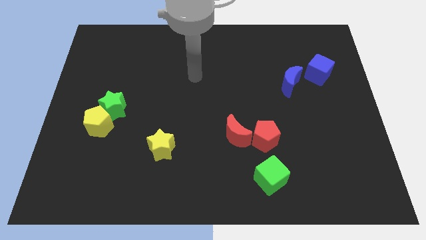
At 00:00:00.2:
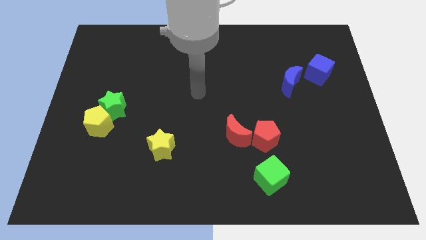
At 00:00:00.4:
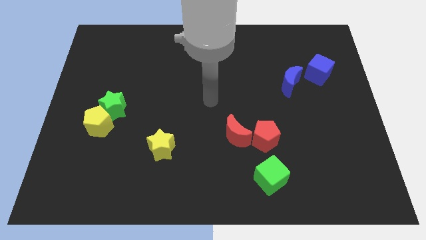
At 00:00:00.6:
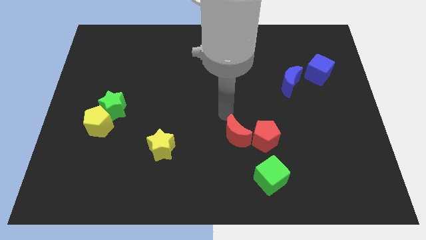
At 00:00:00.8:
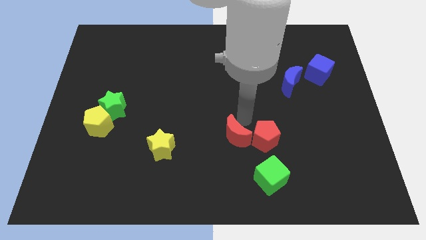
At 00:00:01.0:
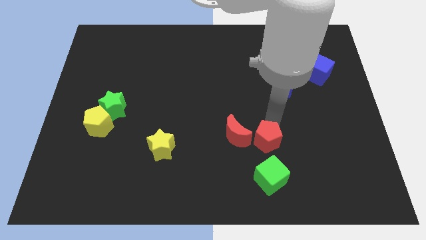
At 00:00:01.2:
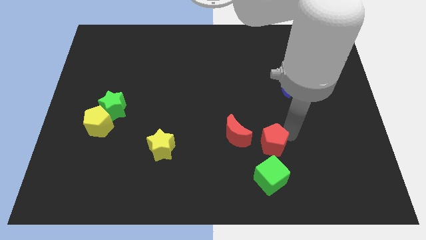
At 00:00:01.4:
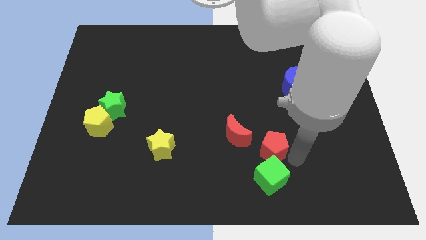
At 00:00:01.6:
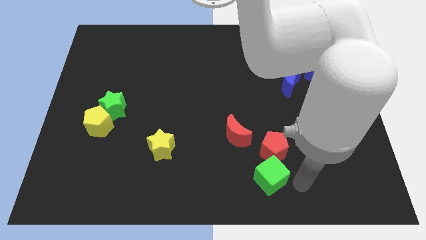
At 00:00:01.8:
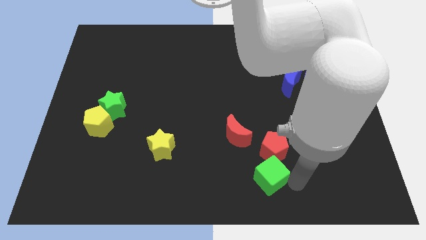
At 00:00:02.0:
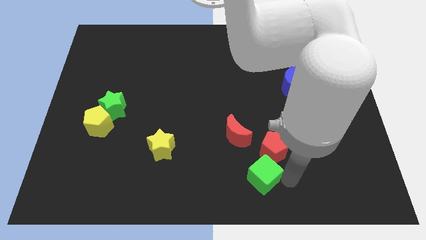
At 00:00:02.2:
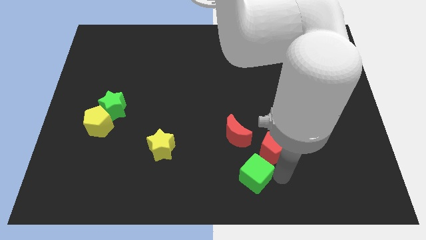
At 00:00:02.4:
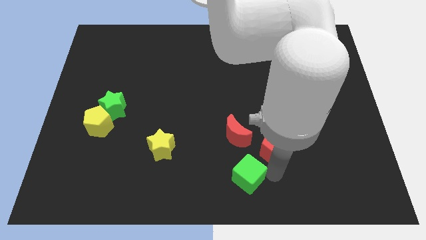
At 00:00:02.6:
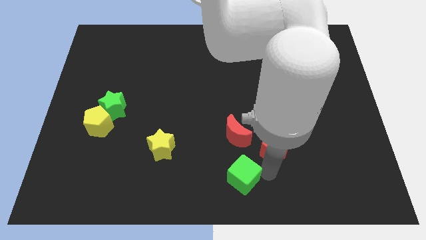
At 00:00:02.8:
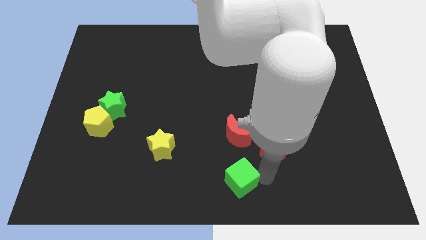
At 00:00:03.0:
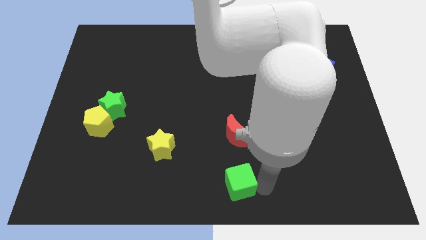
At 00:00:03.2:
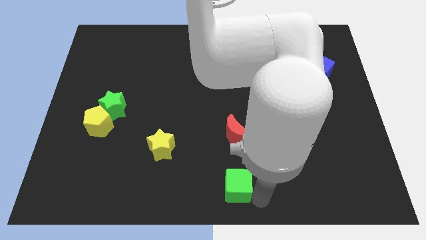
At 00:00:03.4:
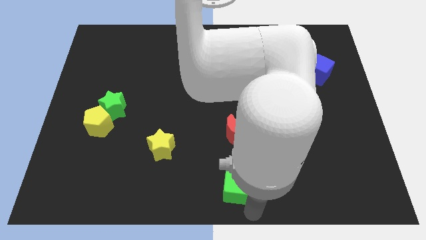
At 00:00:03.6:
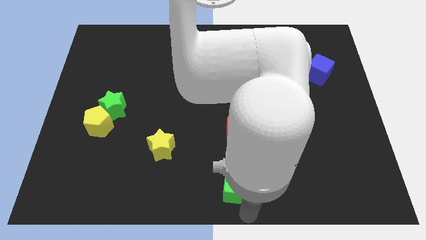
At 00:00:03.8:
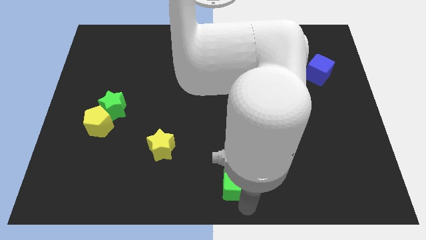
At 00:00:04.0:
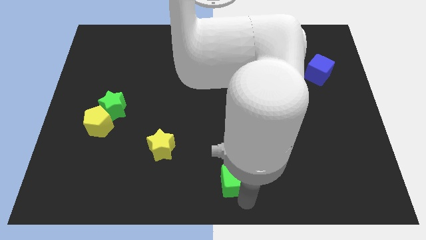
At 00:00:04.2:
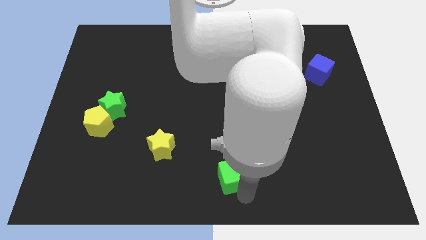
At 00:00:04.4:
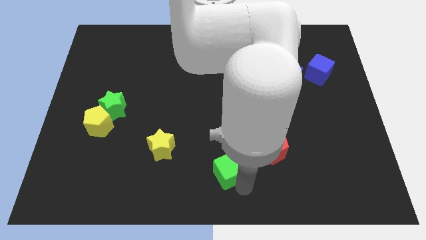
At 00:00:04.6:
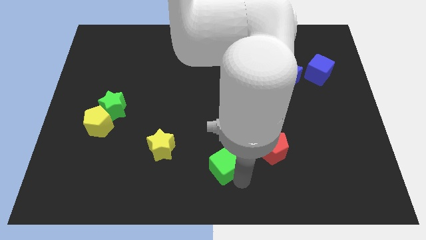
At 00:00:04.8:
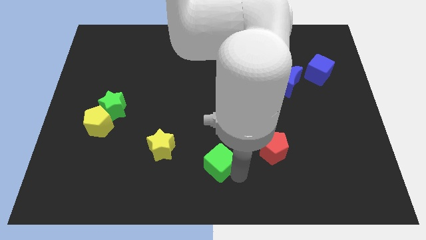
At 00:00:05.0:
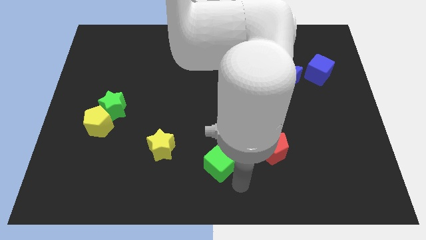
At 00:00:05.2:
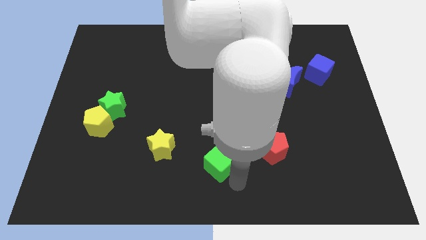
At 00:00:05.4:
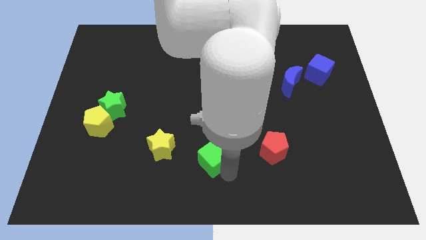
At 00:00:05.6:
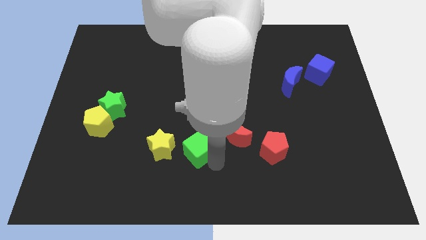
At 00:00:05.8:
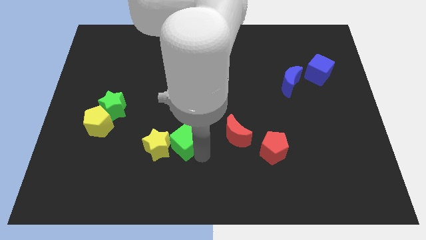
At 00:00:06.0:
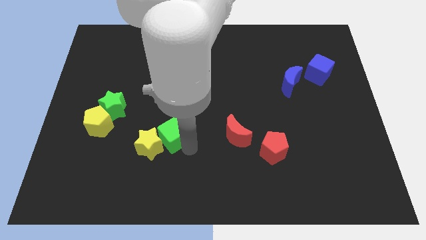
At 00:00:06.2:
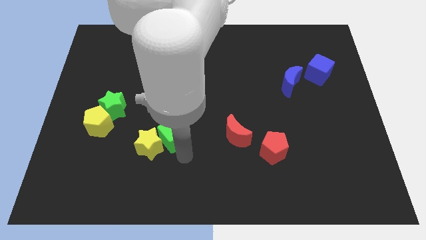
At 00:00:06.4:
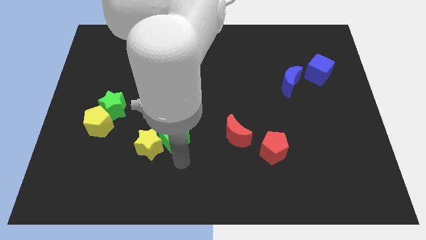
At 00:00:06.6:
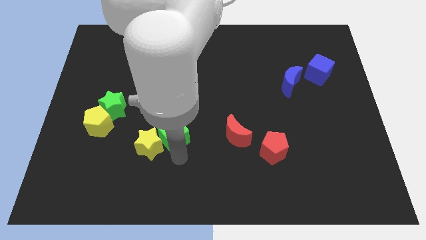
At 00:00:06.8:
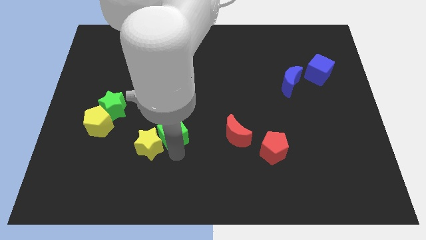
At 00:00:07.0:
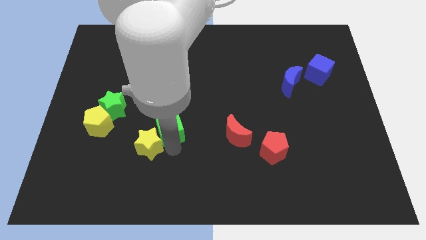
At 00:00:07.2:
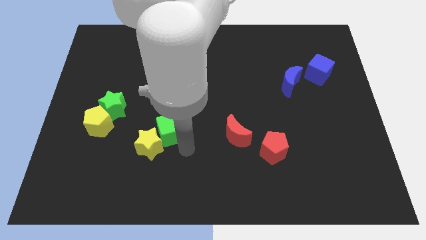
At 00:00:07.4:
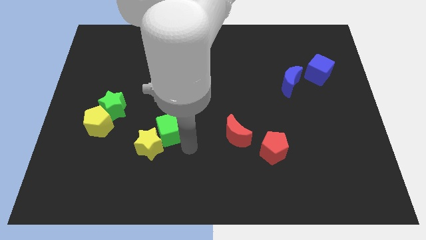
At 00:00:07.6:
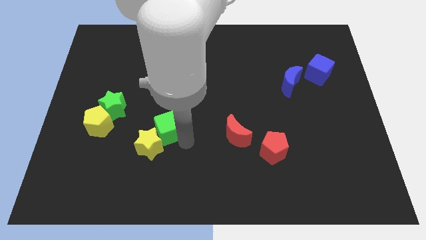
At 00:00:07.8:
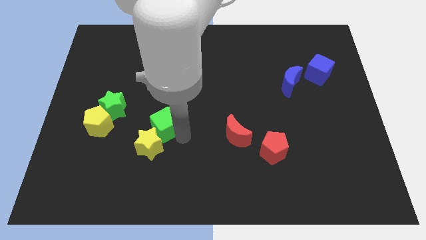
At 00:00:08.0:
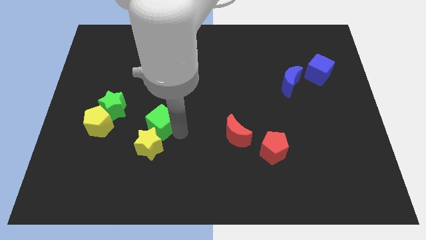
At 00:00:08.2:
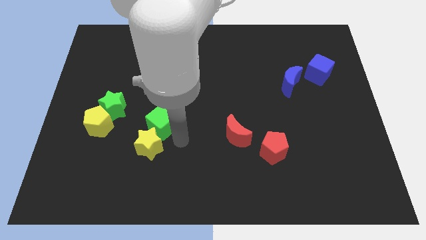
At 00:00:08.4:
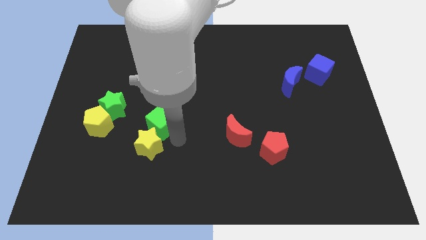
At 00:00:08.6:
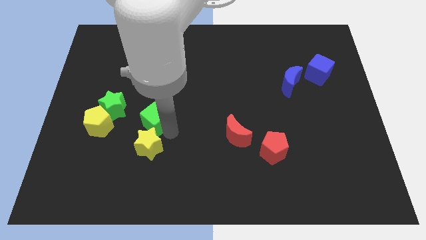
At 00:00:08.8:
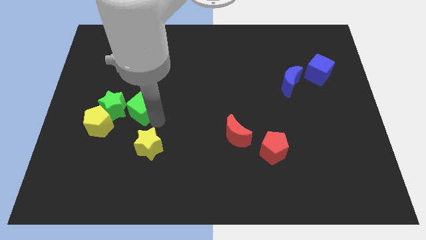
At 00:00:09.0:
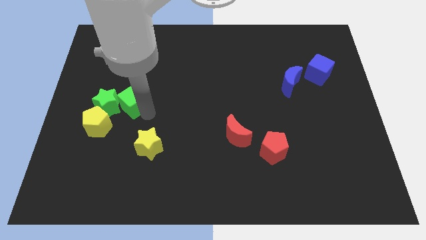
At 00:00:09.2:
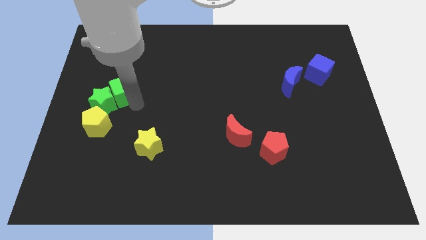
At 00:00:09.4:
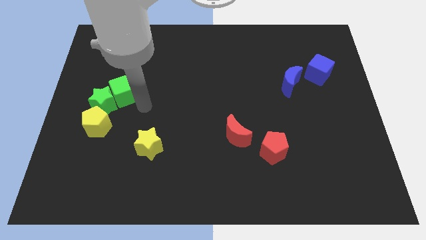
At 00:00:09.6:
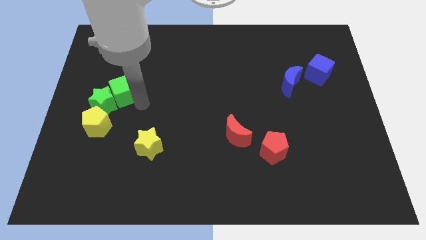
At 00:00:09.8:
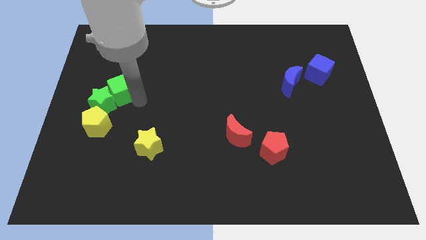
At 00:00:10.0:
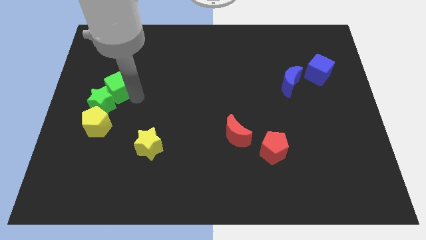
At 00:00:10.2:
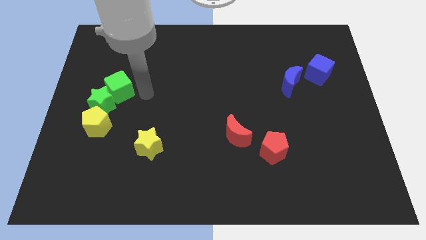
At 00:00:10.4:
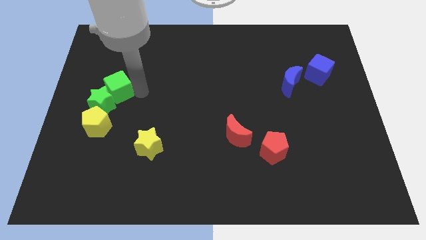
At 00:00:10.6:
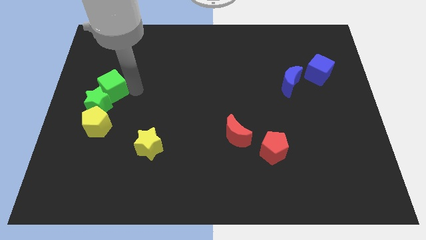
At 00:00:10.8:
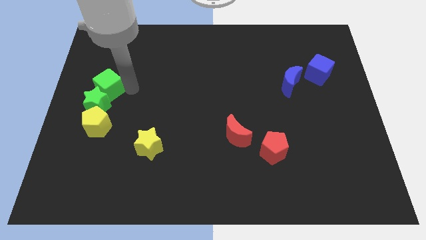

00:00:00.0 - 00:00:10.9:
put the green cube to the left side of the board

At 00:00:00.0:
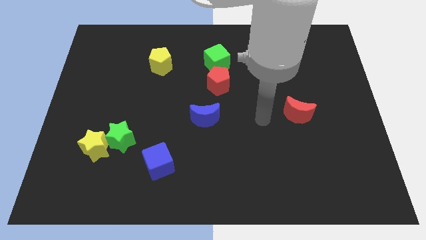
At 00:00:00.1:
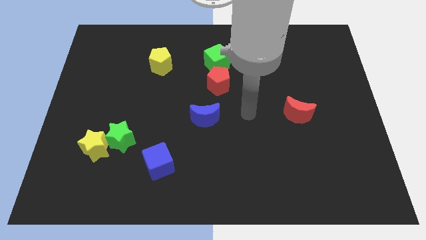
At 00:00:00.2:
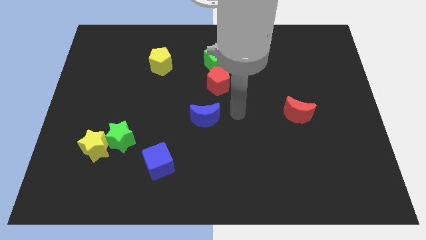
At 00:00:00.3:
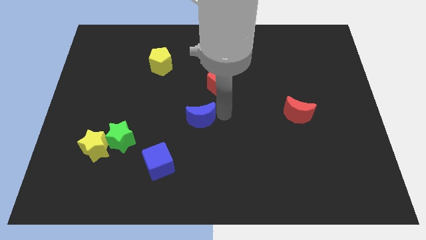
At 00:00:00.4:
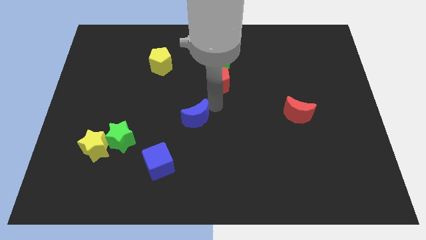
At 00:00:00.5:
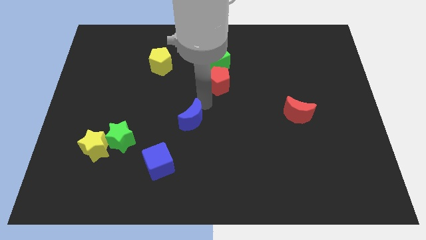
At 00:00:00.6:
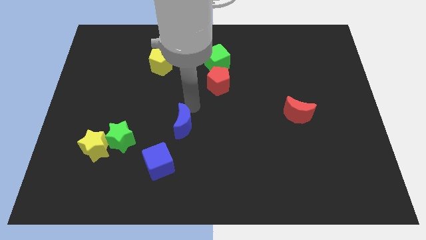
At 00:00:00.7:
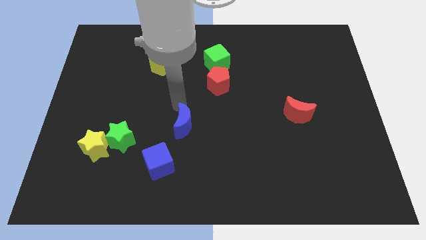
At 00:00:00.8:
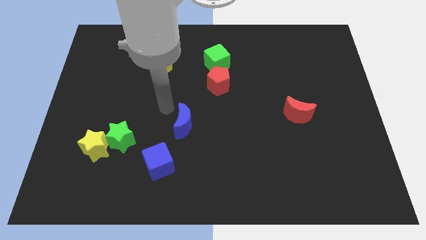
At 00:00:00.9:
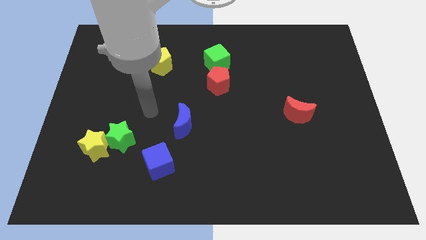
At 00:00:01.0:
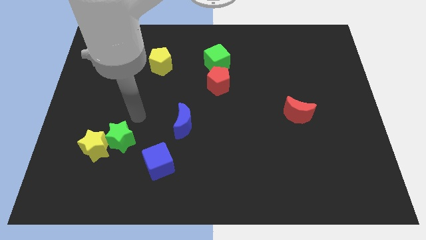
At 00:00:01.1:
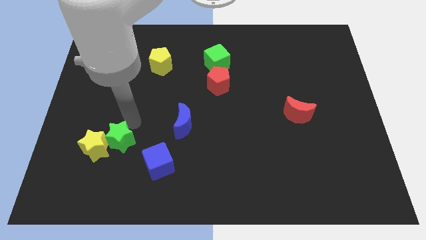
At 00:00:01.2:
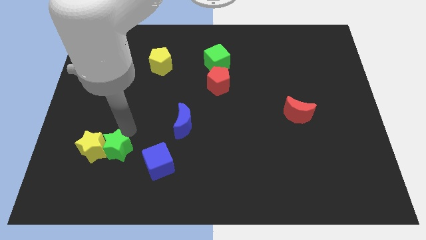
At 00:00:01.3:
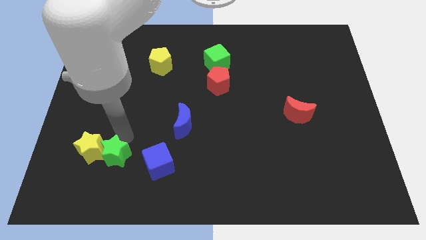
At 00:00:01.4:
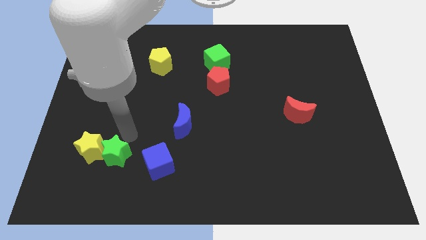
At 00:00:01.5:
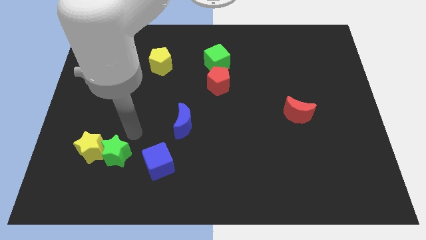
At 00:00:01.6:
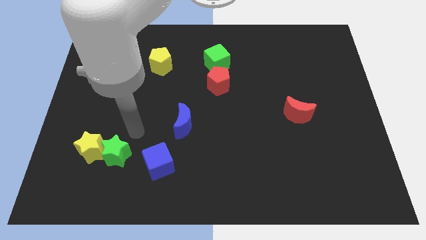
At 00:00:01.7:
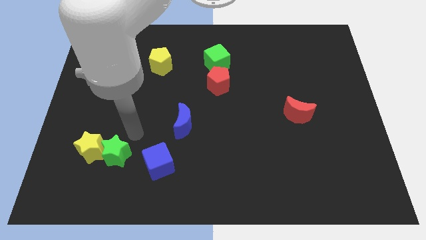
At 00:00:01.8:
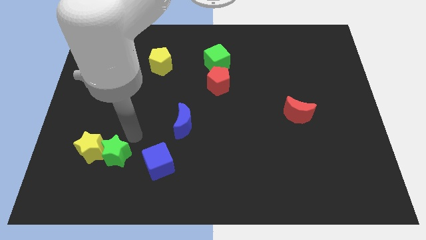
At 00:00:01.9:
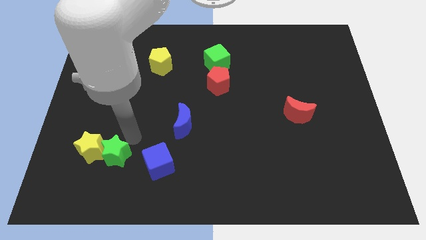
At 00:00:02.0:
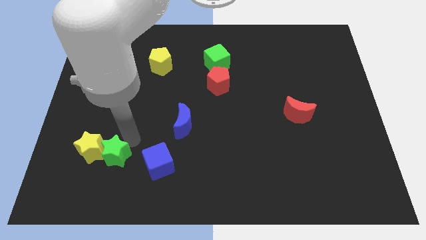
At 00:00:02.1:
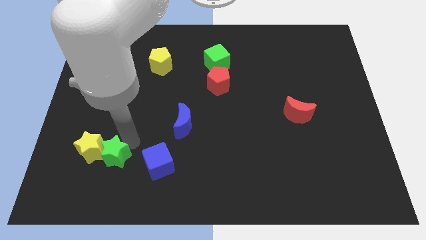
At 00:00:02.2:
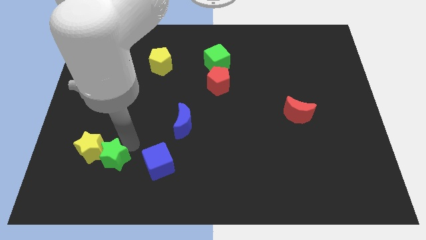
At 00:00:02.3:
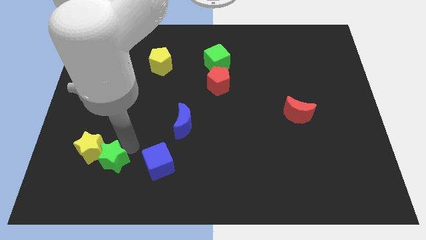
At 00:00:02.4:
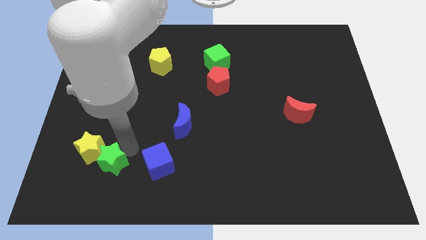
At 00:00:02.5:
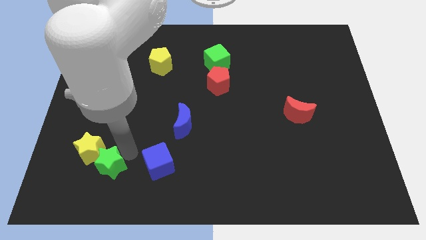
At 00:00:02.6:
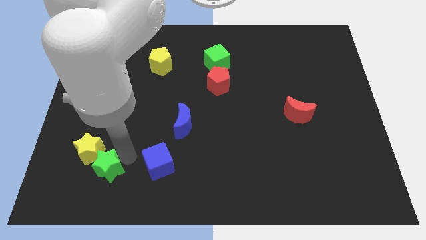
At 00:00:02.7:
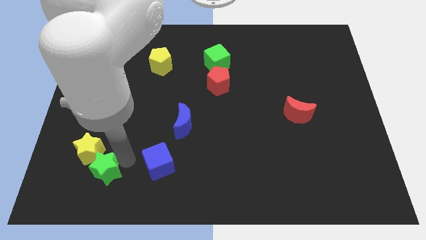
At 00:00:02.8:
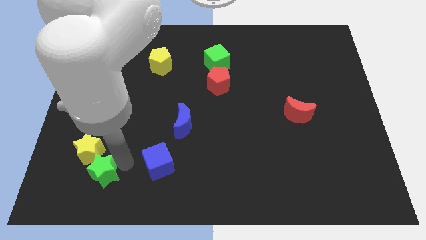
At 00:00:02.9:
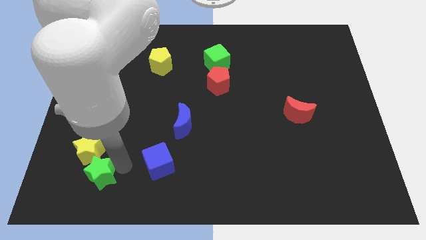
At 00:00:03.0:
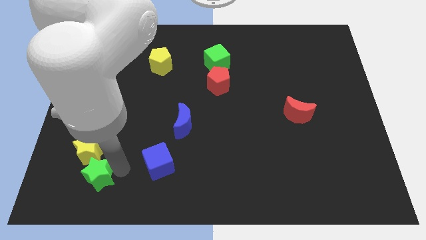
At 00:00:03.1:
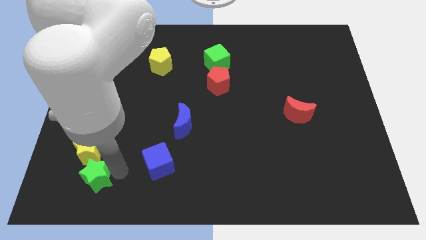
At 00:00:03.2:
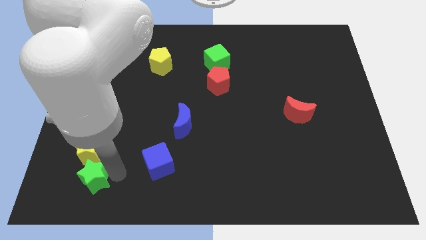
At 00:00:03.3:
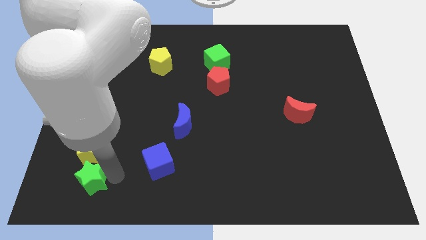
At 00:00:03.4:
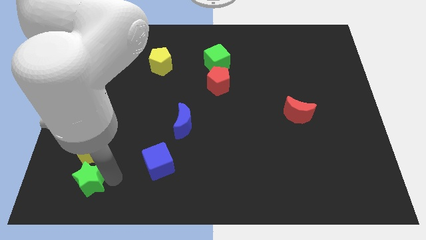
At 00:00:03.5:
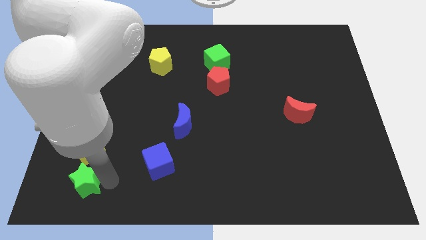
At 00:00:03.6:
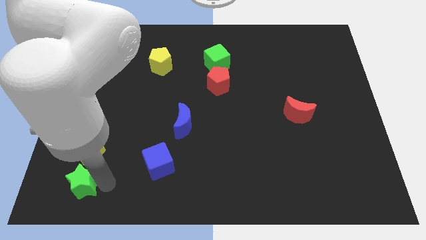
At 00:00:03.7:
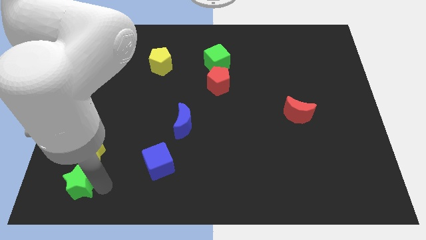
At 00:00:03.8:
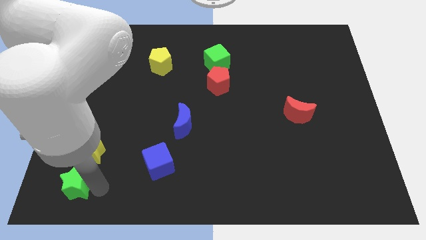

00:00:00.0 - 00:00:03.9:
move the green star to the bottom left of the board
